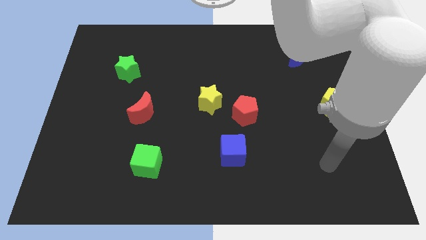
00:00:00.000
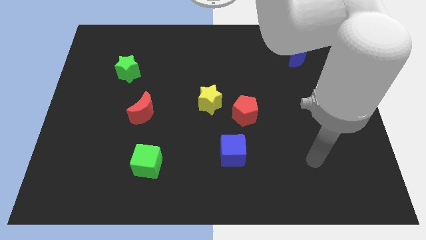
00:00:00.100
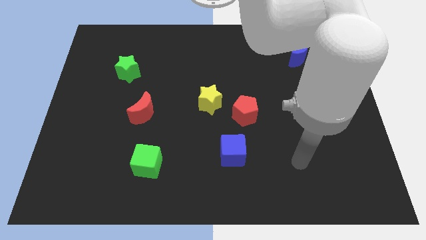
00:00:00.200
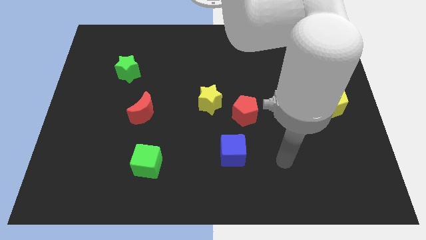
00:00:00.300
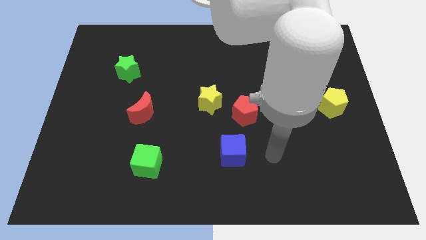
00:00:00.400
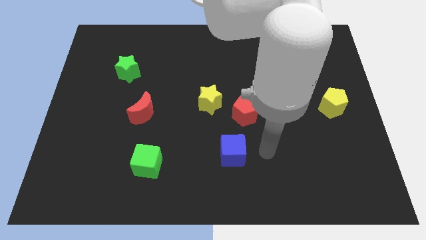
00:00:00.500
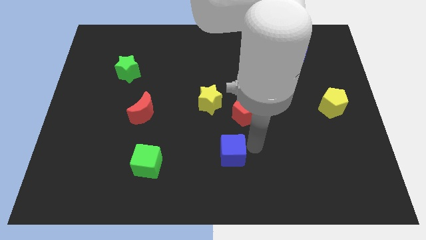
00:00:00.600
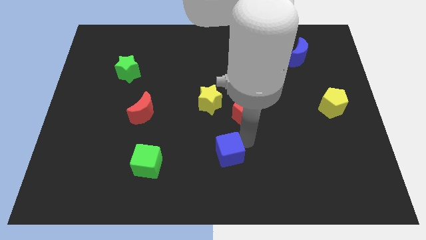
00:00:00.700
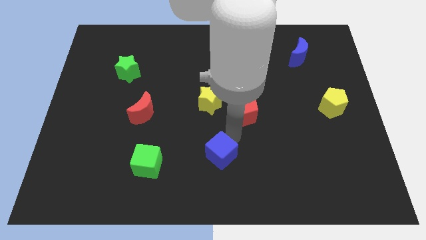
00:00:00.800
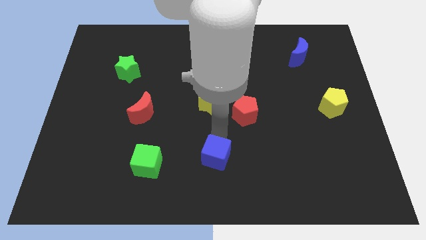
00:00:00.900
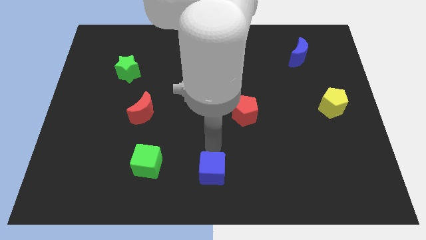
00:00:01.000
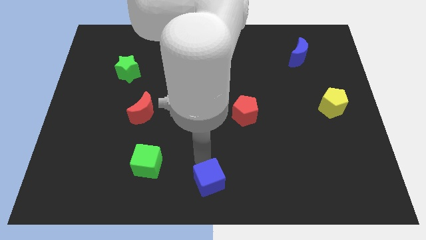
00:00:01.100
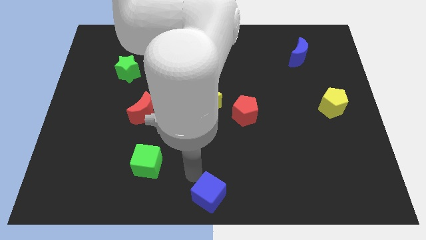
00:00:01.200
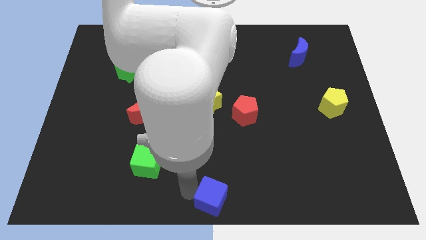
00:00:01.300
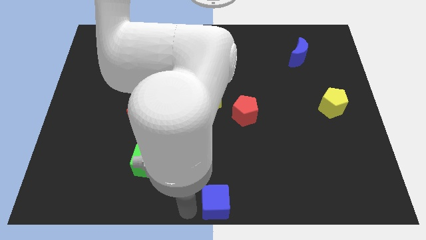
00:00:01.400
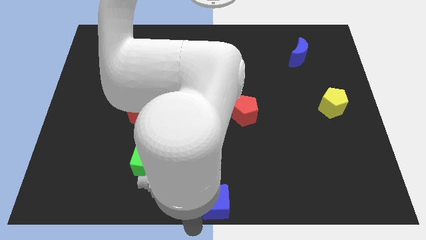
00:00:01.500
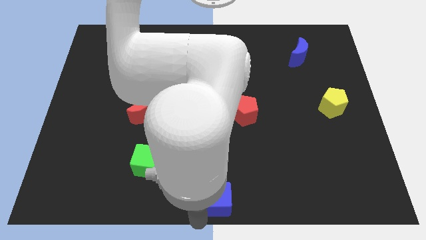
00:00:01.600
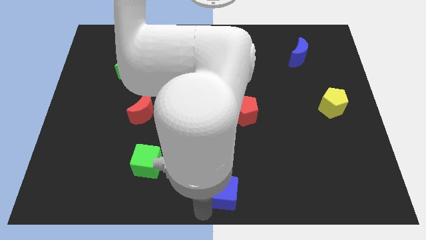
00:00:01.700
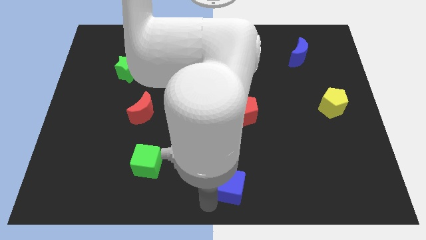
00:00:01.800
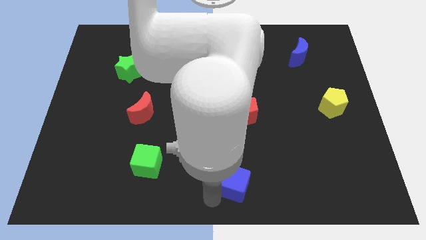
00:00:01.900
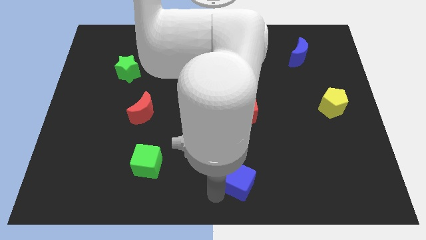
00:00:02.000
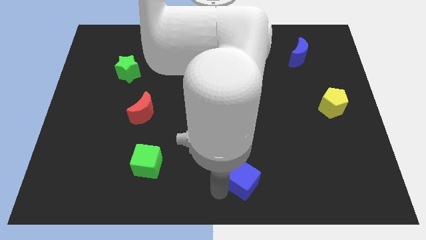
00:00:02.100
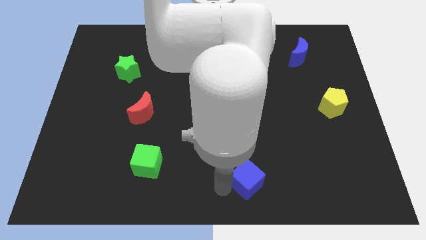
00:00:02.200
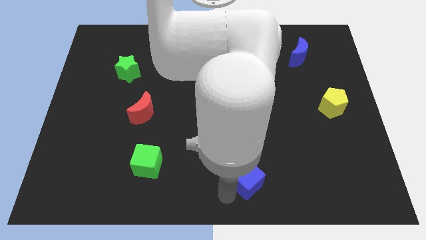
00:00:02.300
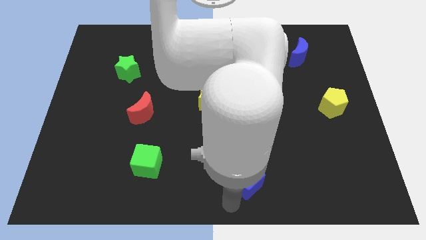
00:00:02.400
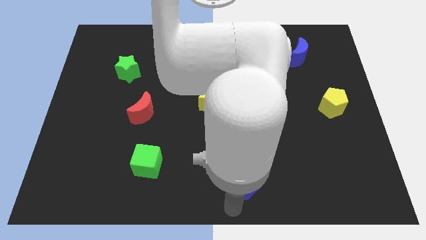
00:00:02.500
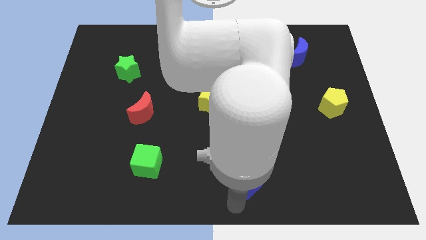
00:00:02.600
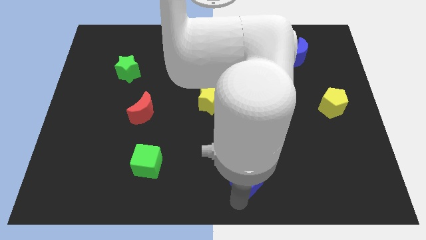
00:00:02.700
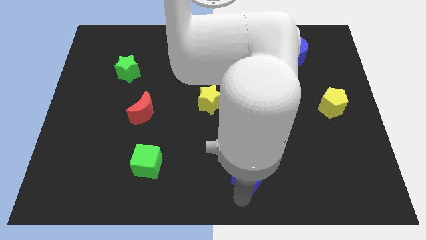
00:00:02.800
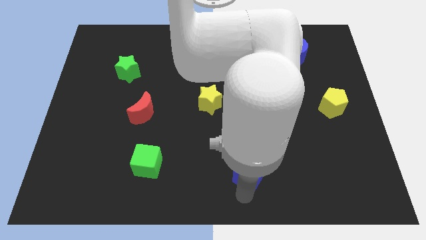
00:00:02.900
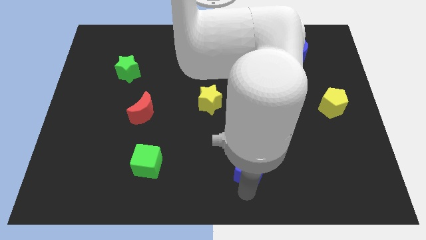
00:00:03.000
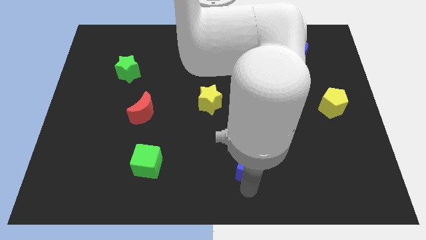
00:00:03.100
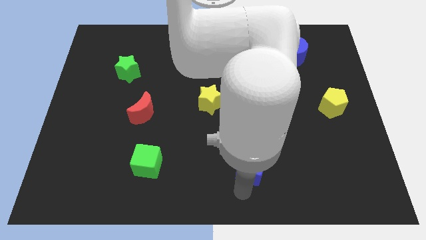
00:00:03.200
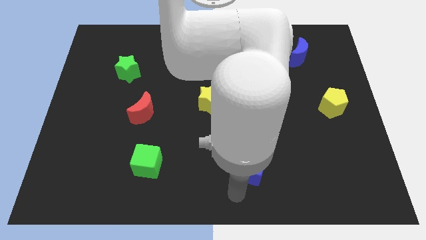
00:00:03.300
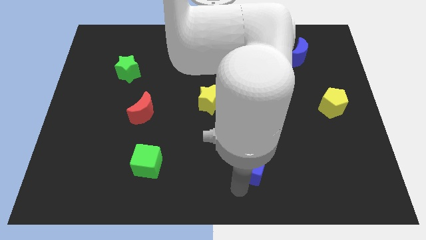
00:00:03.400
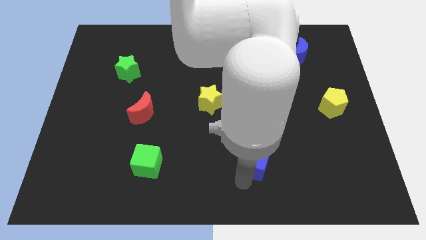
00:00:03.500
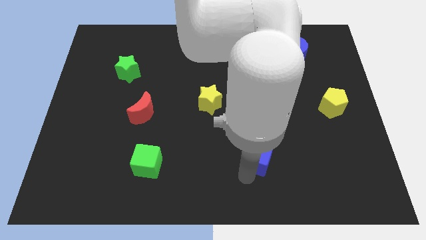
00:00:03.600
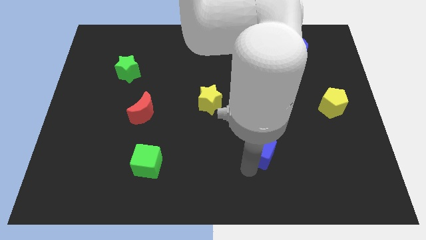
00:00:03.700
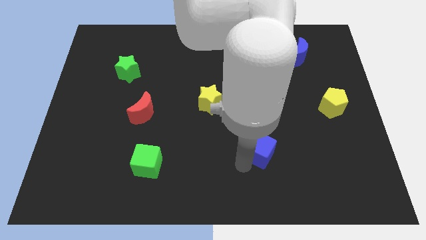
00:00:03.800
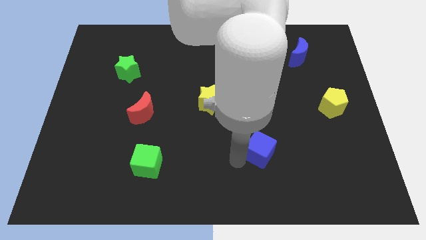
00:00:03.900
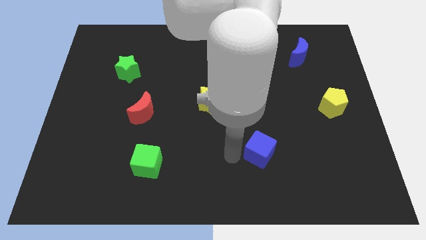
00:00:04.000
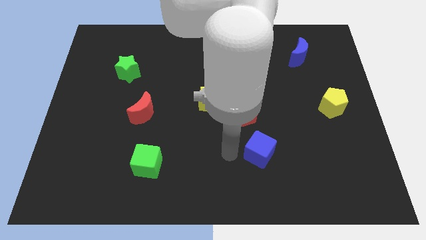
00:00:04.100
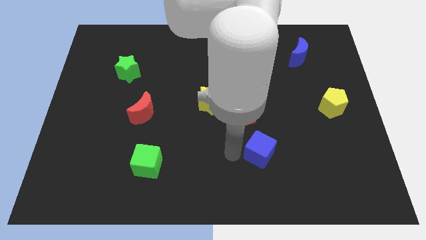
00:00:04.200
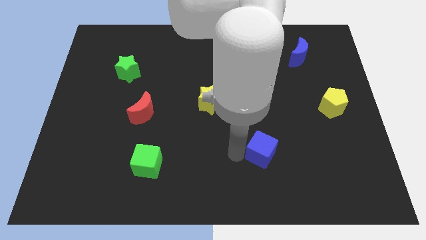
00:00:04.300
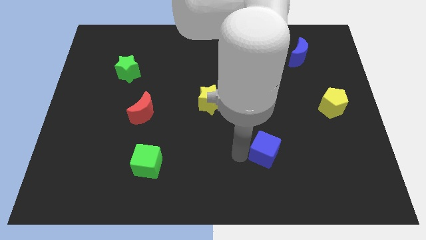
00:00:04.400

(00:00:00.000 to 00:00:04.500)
push the blue cube a little bit to the right

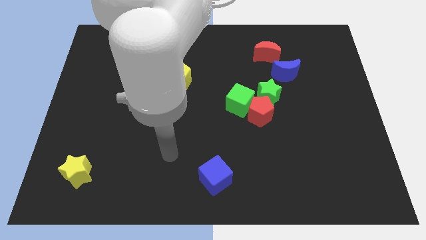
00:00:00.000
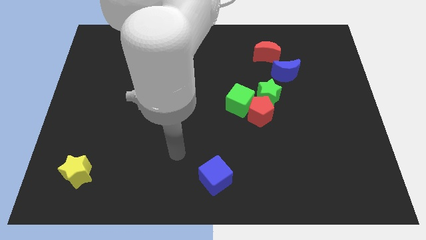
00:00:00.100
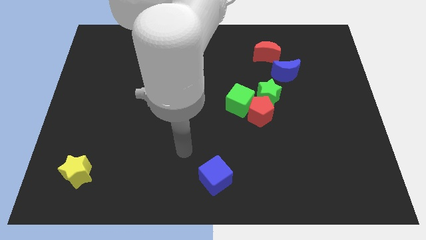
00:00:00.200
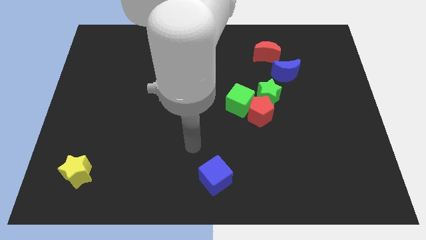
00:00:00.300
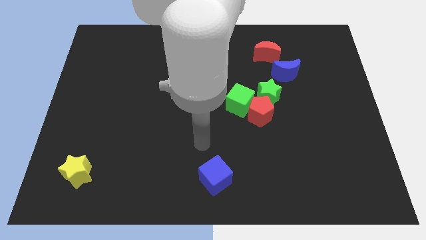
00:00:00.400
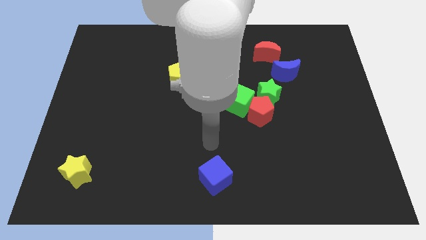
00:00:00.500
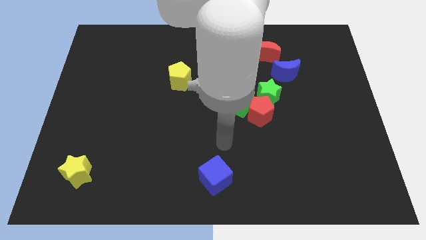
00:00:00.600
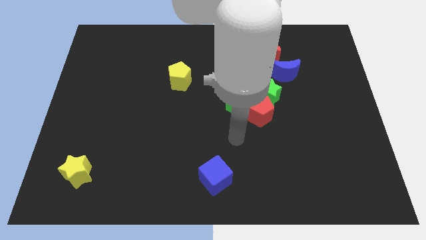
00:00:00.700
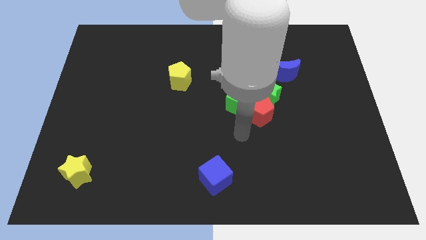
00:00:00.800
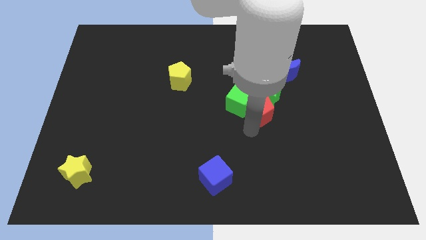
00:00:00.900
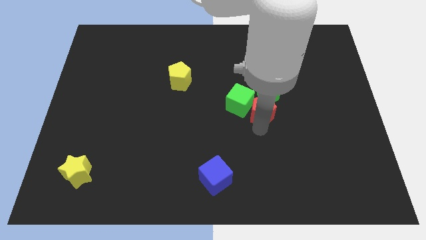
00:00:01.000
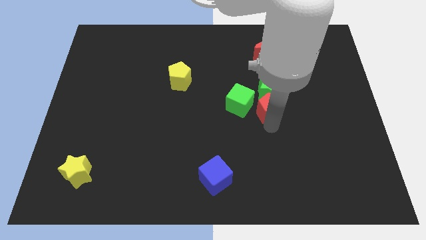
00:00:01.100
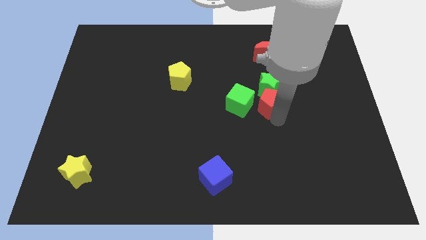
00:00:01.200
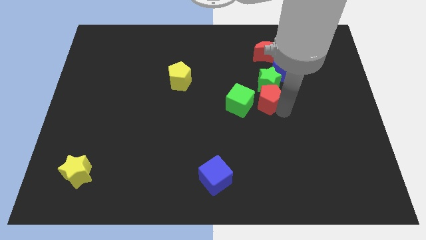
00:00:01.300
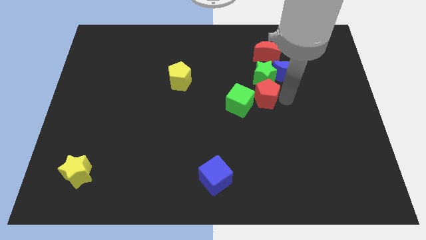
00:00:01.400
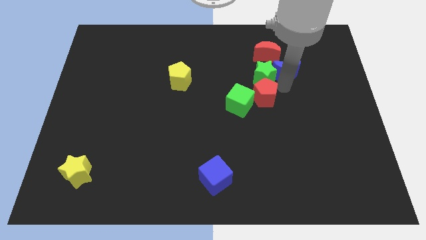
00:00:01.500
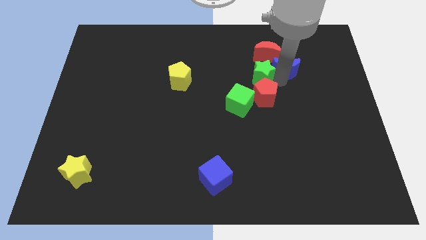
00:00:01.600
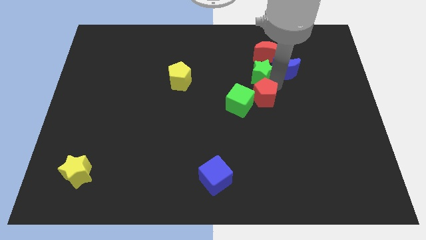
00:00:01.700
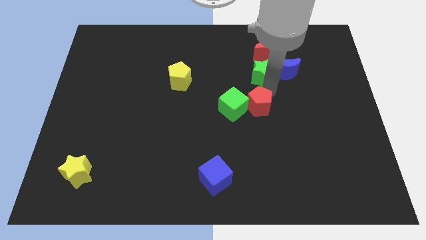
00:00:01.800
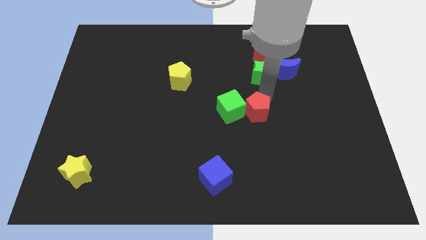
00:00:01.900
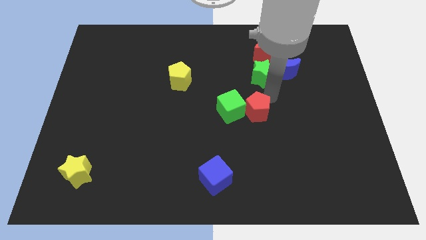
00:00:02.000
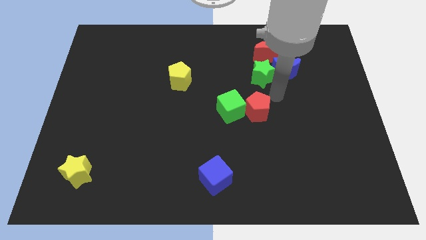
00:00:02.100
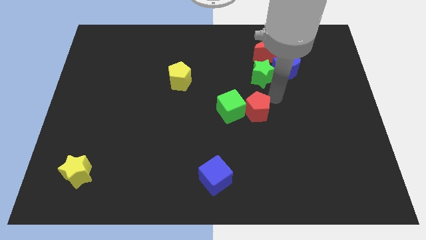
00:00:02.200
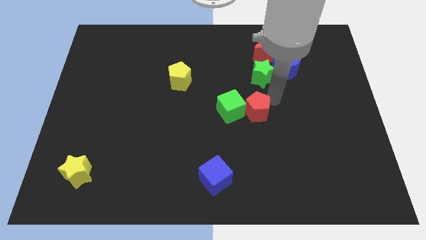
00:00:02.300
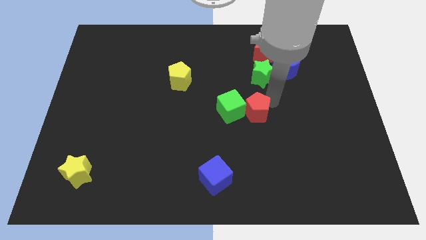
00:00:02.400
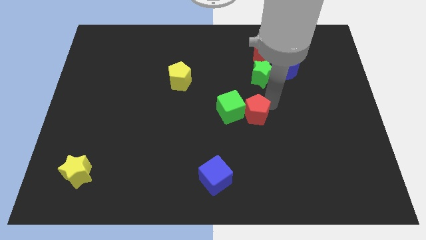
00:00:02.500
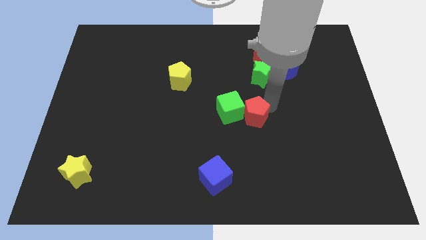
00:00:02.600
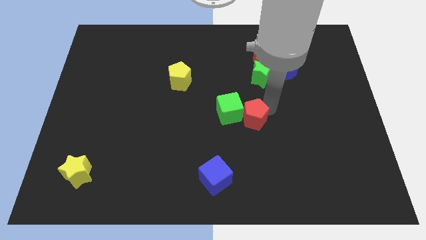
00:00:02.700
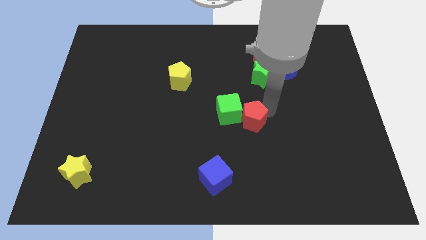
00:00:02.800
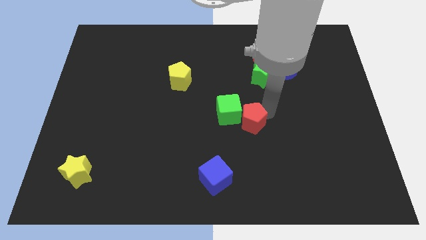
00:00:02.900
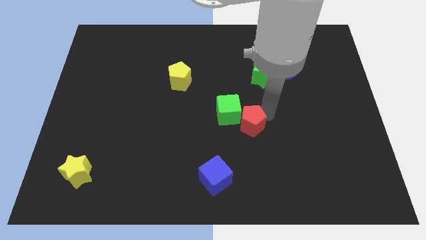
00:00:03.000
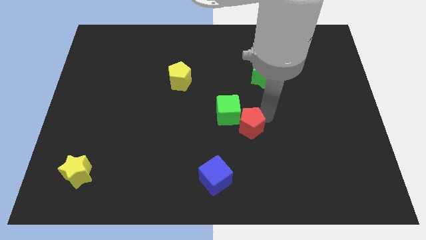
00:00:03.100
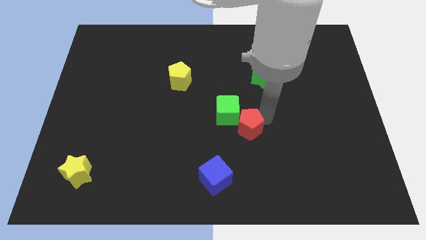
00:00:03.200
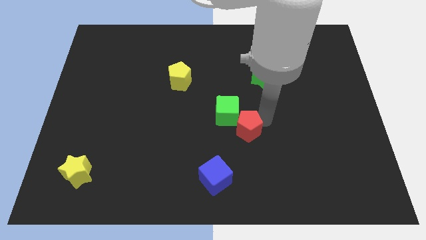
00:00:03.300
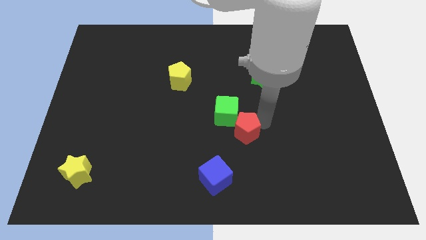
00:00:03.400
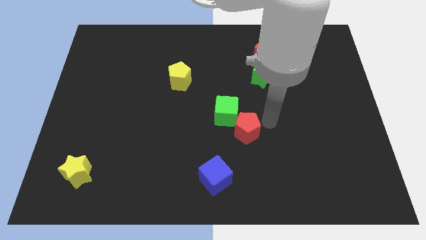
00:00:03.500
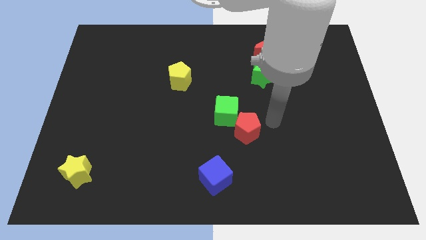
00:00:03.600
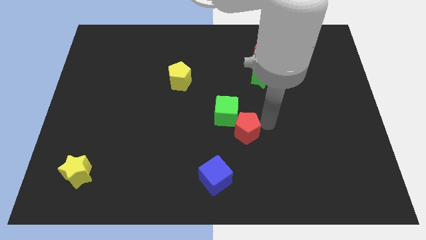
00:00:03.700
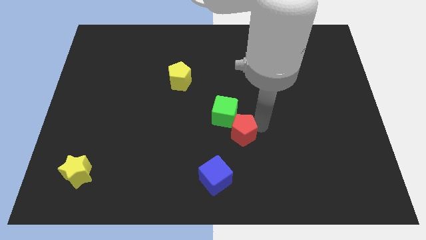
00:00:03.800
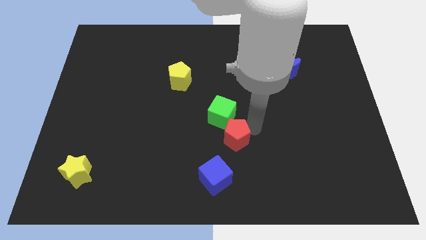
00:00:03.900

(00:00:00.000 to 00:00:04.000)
slightly move the red pentagon downwards and left diagonally

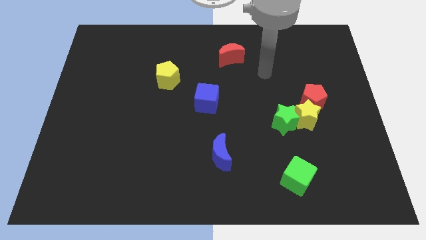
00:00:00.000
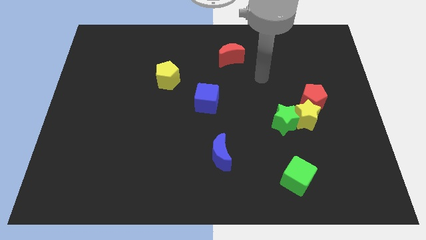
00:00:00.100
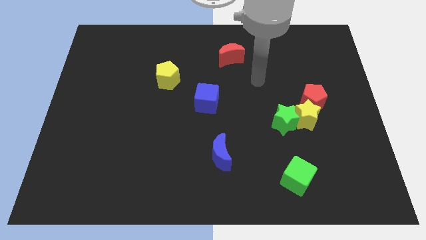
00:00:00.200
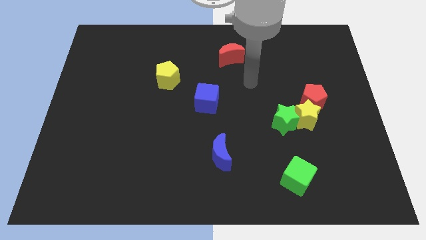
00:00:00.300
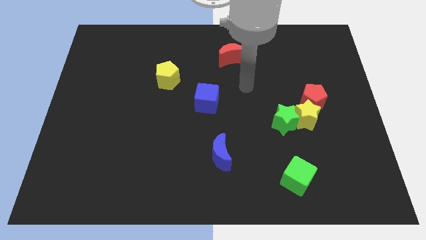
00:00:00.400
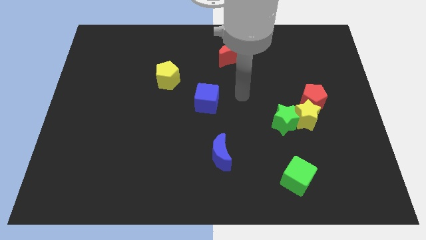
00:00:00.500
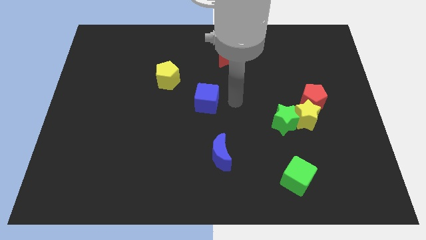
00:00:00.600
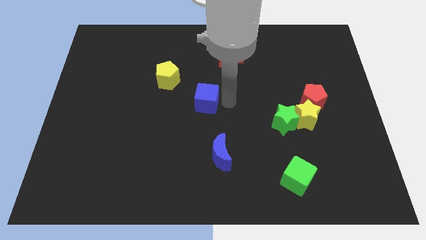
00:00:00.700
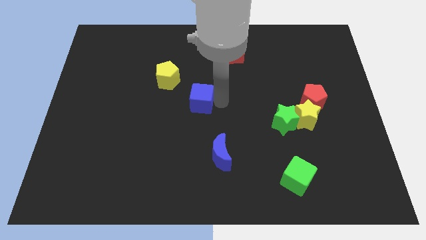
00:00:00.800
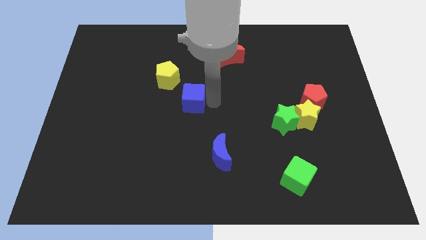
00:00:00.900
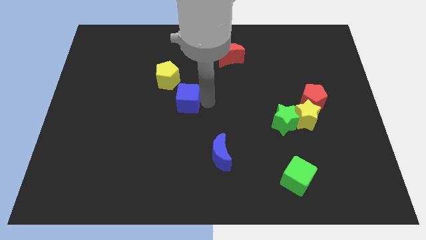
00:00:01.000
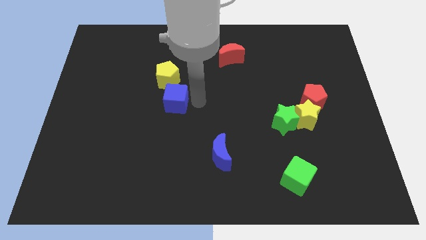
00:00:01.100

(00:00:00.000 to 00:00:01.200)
slide the blue cube slightly to the left
